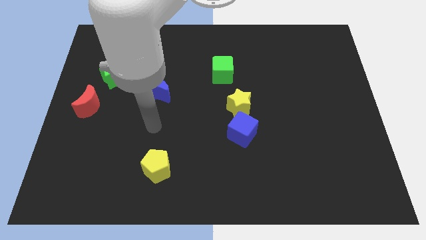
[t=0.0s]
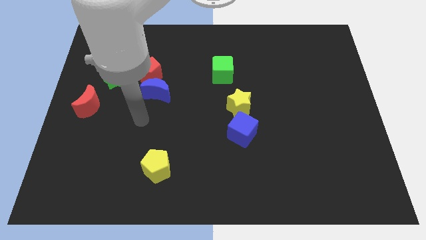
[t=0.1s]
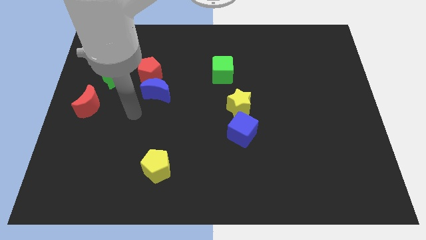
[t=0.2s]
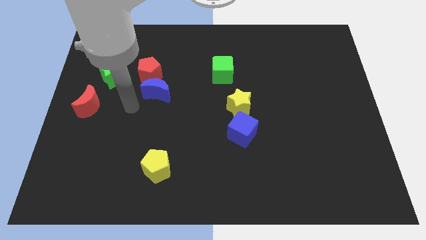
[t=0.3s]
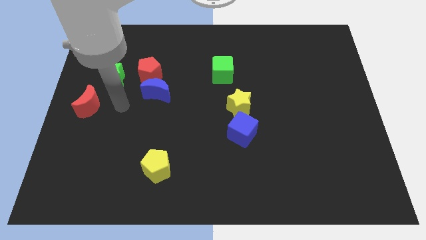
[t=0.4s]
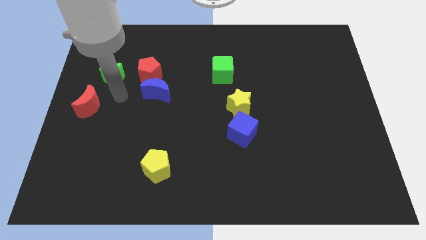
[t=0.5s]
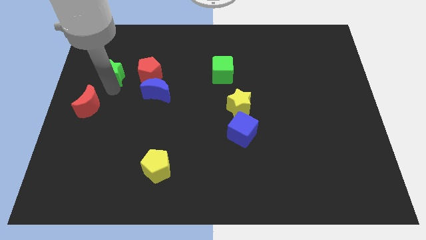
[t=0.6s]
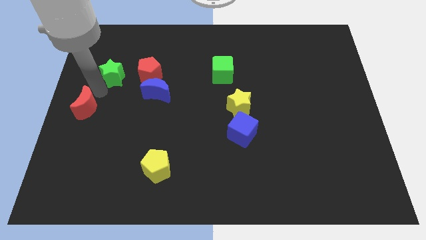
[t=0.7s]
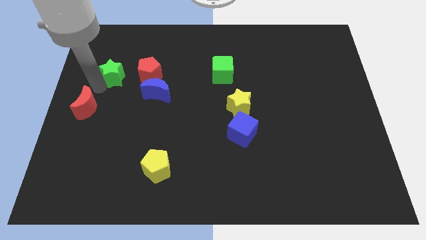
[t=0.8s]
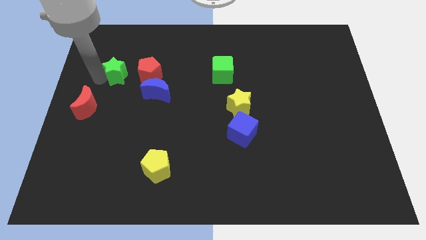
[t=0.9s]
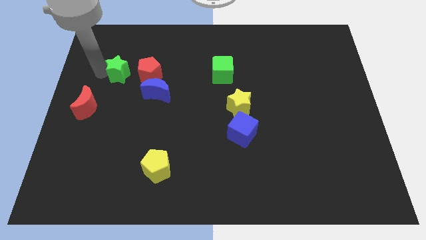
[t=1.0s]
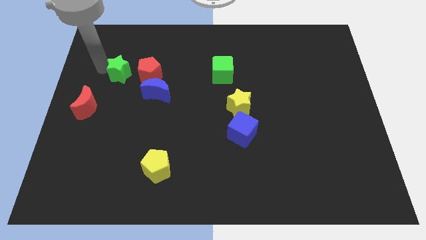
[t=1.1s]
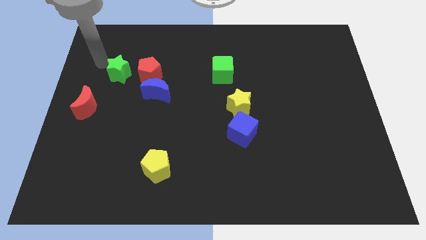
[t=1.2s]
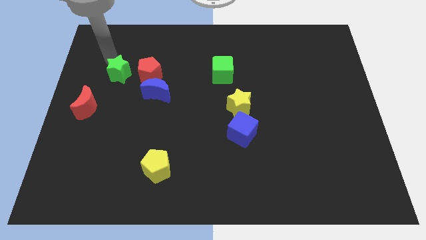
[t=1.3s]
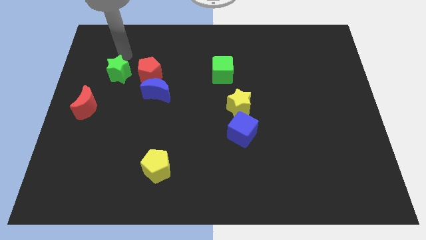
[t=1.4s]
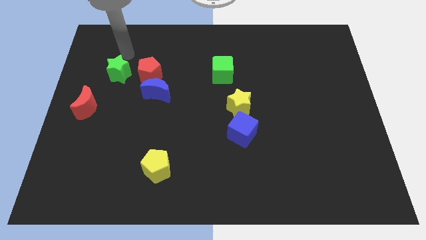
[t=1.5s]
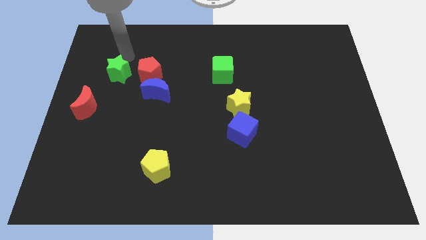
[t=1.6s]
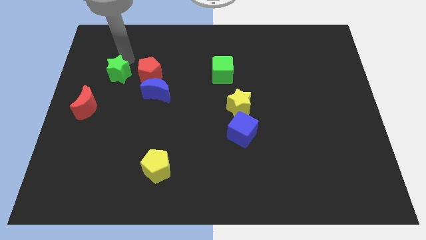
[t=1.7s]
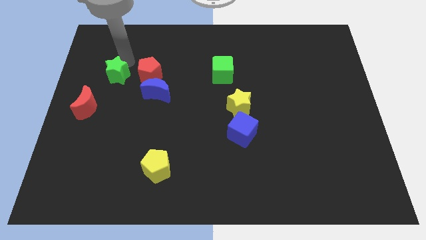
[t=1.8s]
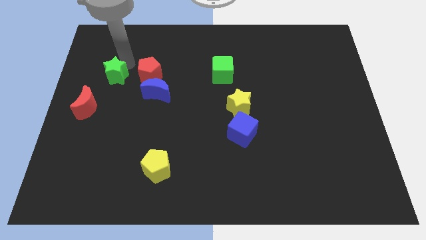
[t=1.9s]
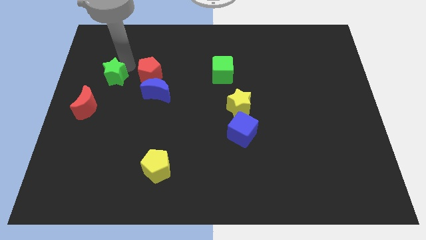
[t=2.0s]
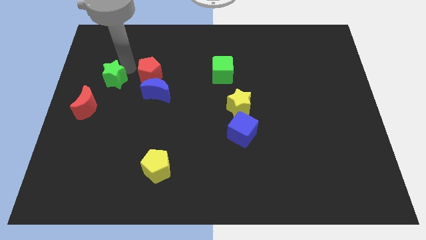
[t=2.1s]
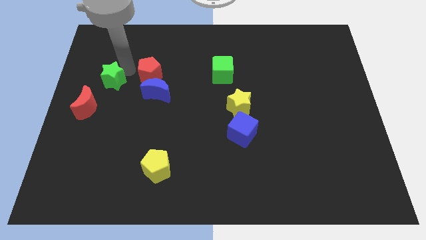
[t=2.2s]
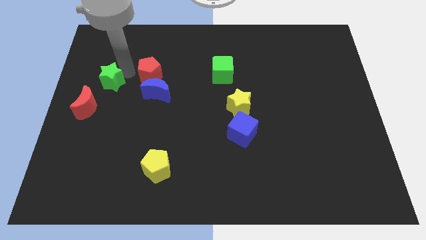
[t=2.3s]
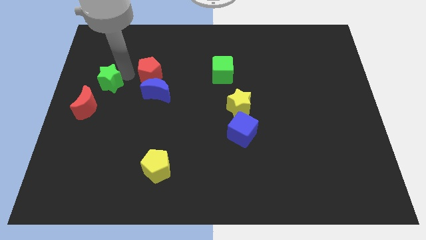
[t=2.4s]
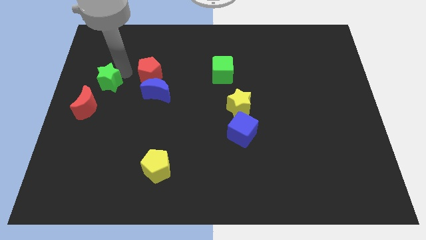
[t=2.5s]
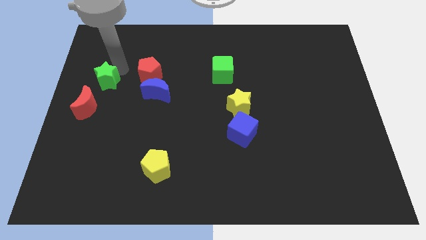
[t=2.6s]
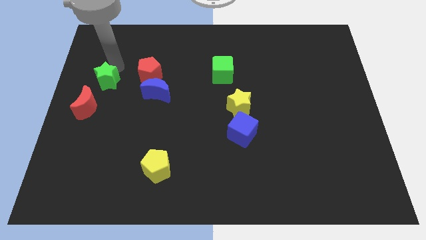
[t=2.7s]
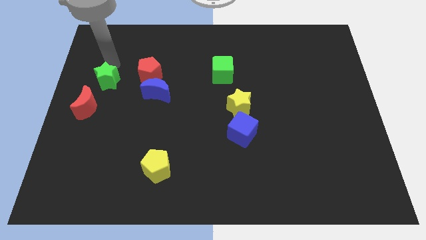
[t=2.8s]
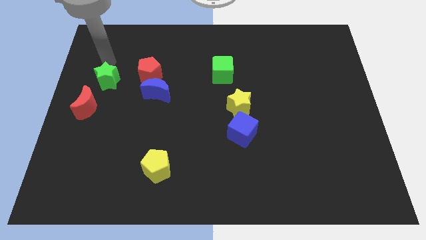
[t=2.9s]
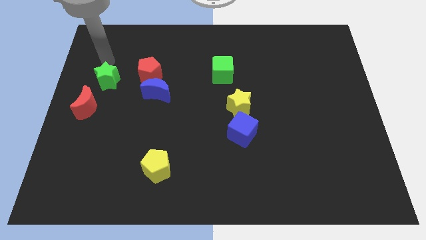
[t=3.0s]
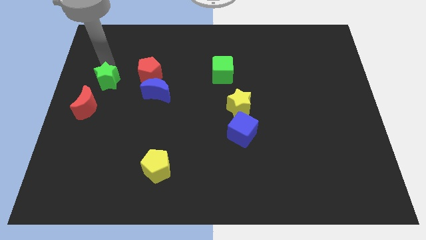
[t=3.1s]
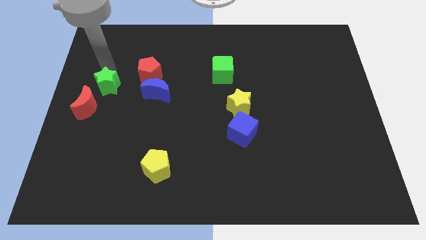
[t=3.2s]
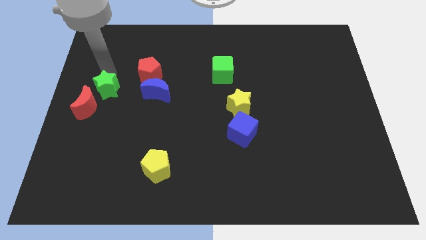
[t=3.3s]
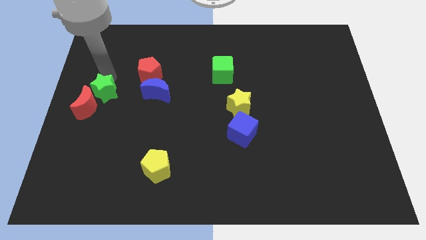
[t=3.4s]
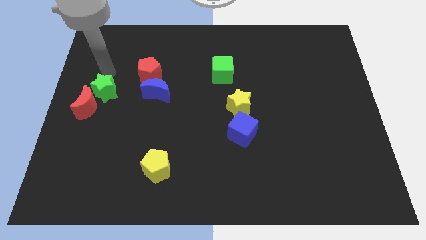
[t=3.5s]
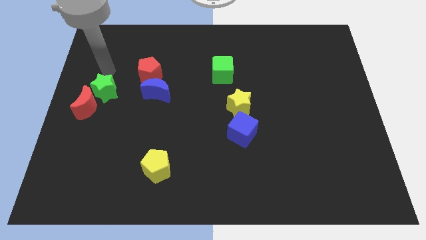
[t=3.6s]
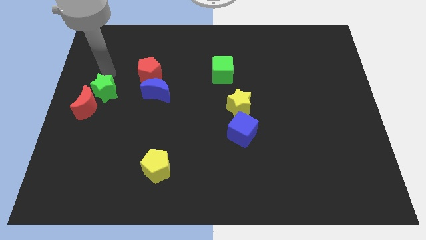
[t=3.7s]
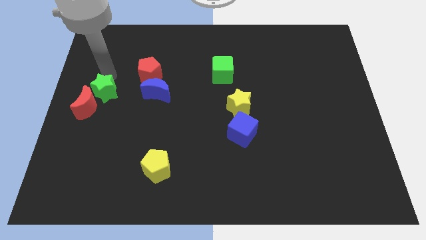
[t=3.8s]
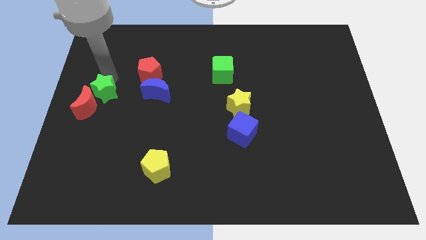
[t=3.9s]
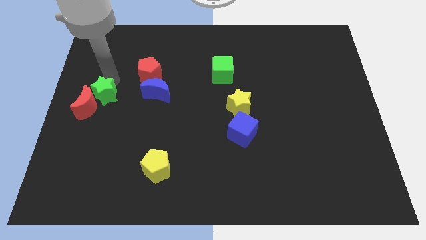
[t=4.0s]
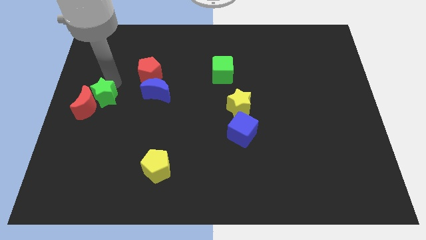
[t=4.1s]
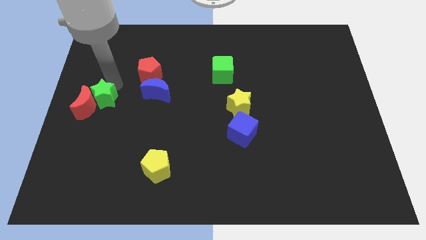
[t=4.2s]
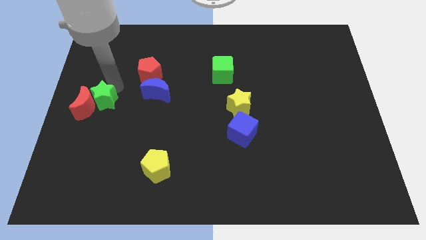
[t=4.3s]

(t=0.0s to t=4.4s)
move the green star down a bit

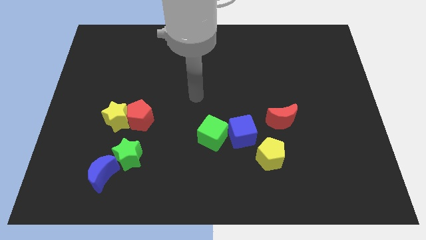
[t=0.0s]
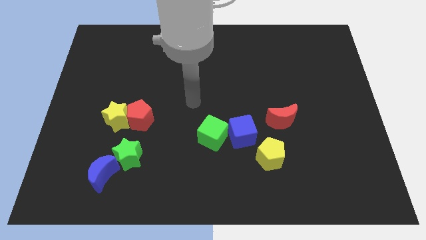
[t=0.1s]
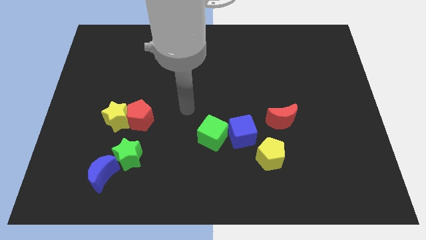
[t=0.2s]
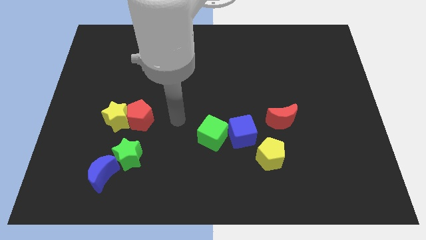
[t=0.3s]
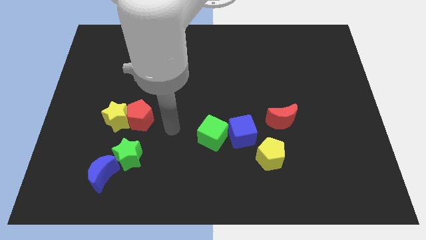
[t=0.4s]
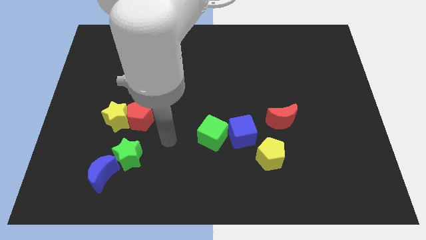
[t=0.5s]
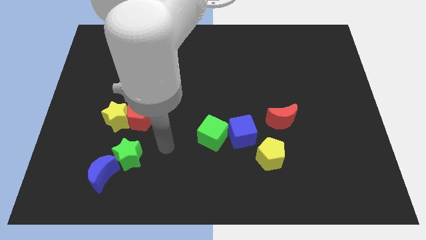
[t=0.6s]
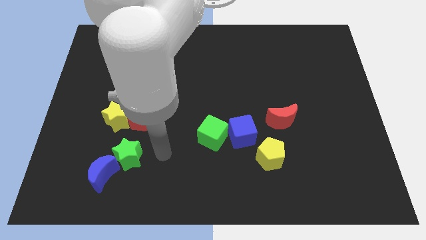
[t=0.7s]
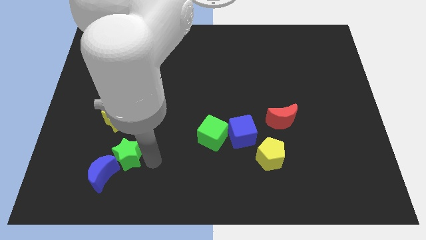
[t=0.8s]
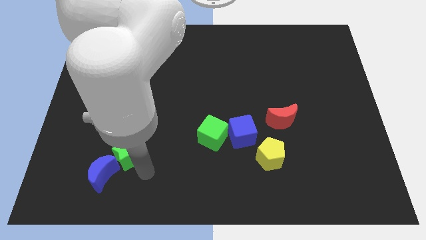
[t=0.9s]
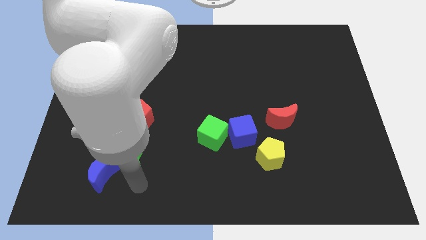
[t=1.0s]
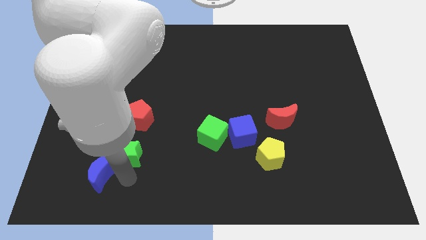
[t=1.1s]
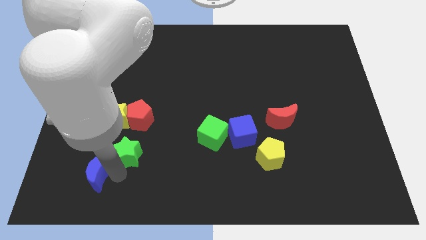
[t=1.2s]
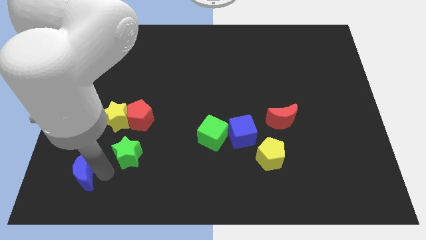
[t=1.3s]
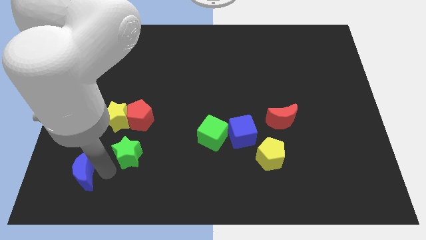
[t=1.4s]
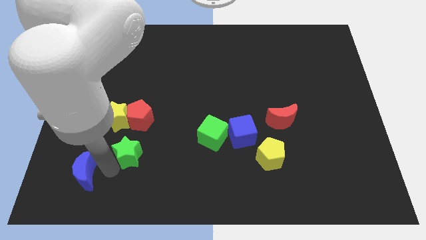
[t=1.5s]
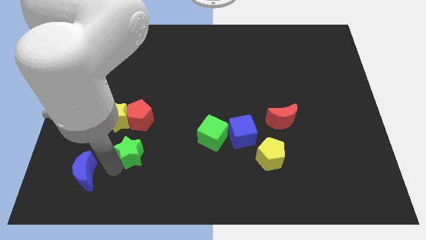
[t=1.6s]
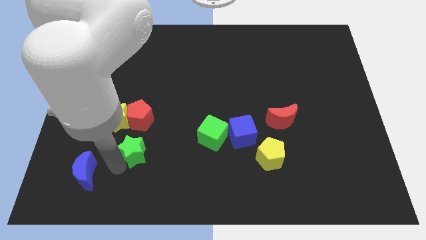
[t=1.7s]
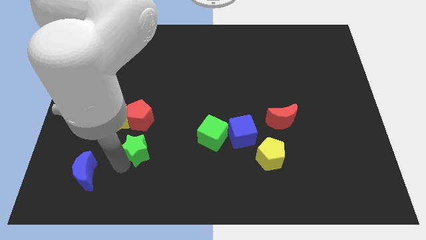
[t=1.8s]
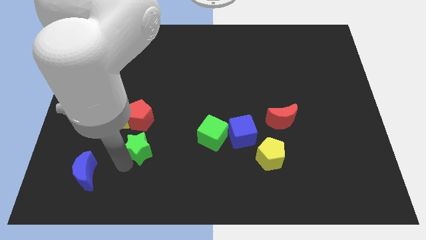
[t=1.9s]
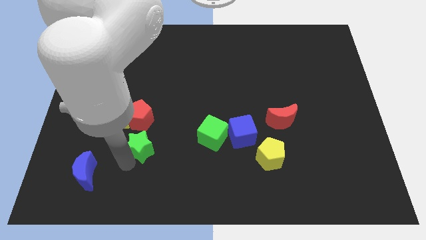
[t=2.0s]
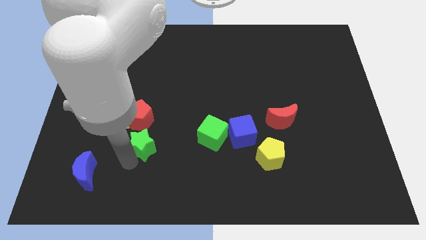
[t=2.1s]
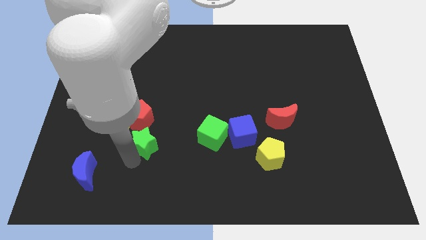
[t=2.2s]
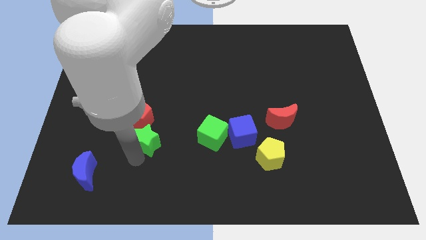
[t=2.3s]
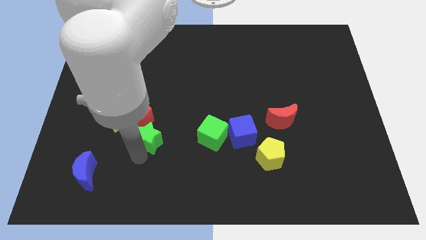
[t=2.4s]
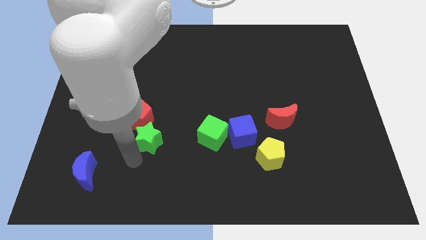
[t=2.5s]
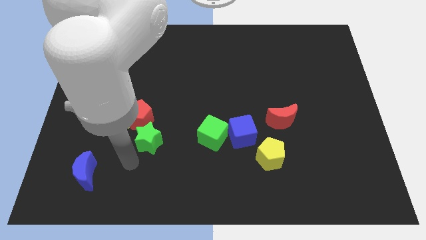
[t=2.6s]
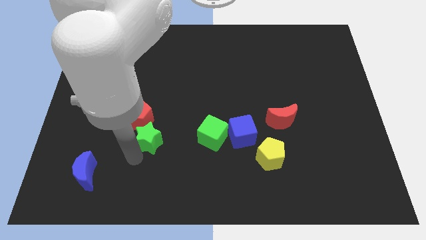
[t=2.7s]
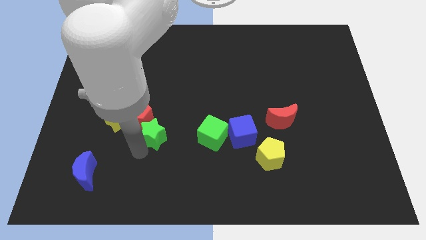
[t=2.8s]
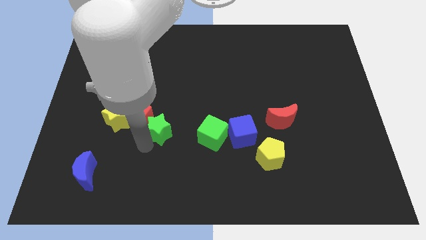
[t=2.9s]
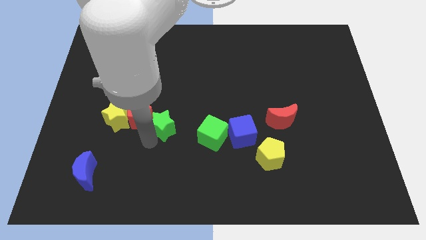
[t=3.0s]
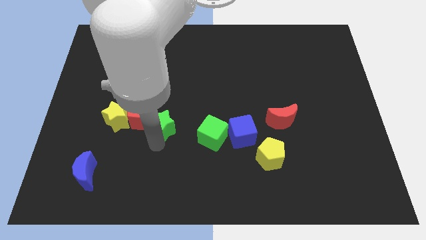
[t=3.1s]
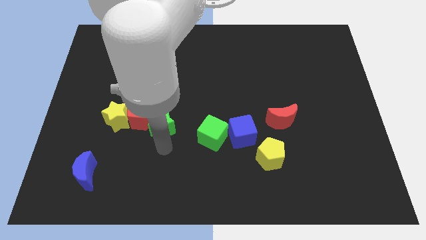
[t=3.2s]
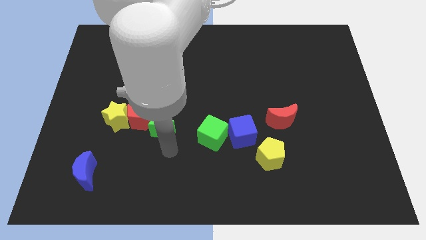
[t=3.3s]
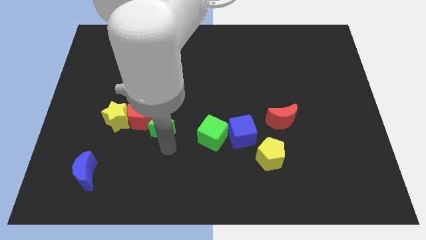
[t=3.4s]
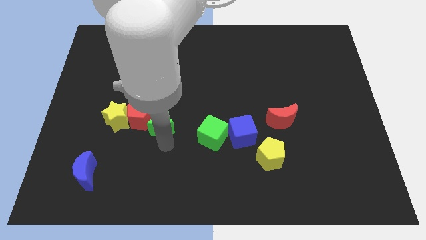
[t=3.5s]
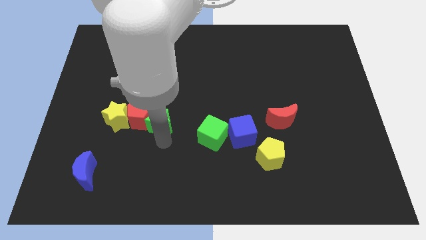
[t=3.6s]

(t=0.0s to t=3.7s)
slightly push the green star upwards
